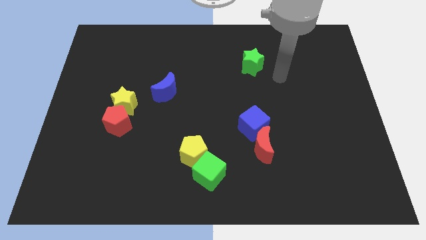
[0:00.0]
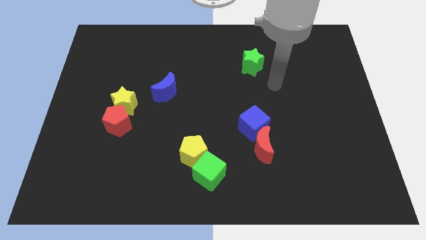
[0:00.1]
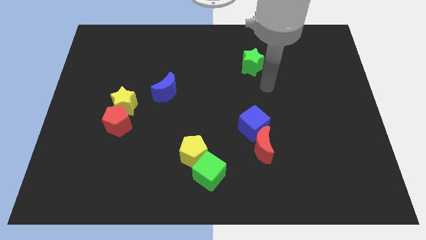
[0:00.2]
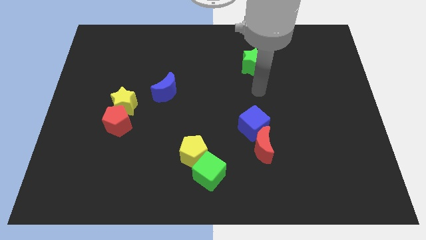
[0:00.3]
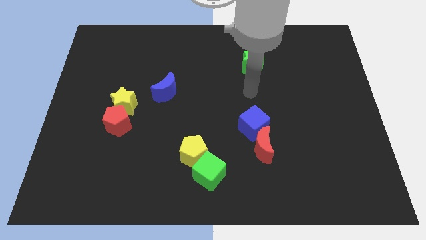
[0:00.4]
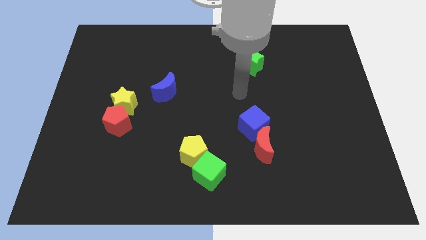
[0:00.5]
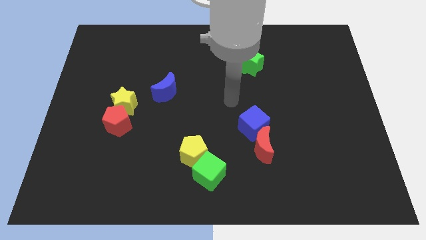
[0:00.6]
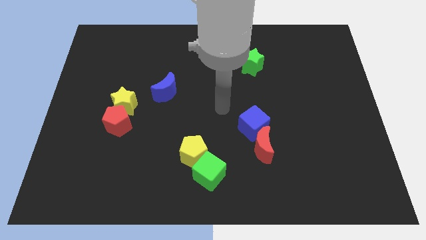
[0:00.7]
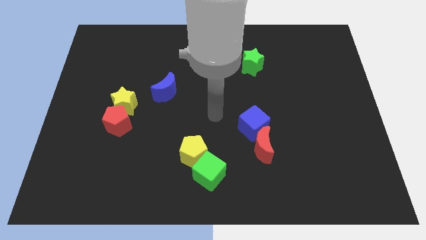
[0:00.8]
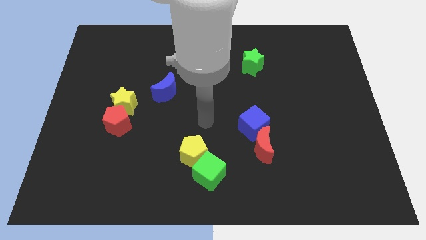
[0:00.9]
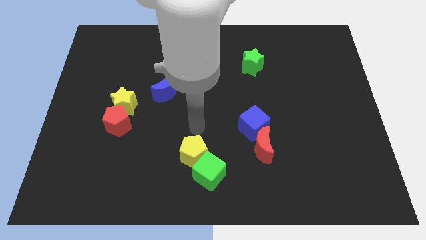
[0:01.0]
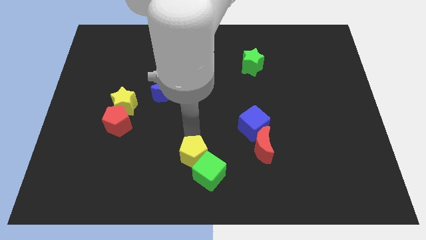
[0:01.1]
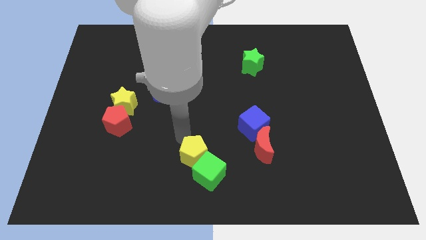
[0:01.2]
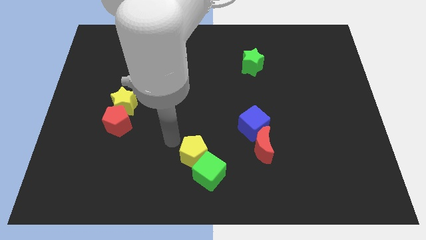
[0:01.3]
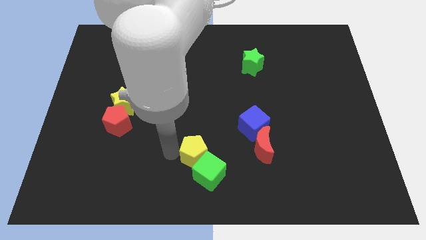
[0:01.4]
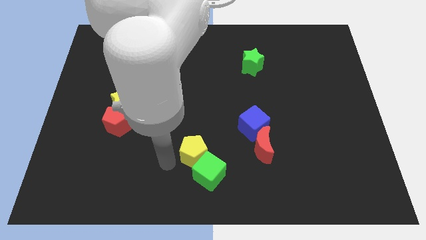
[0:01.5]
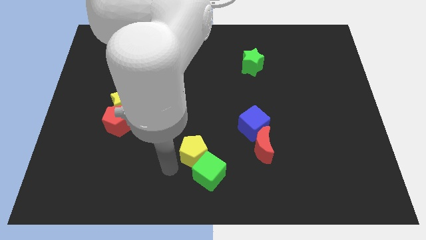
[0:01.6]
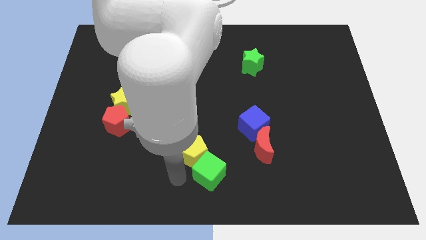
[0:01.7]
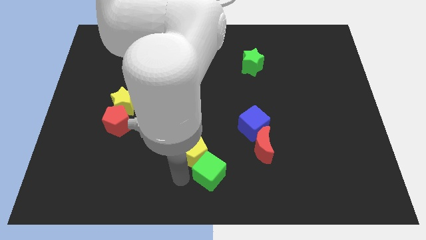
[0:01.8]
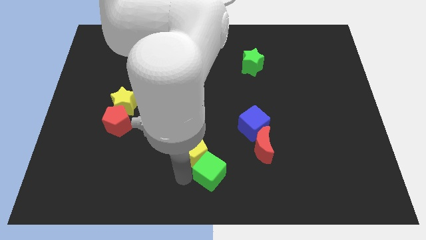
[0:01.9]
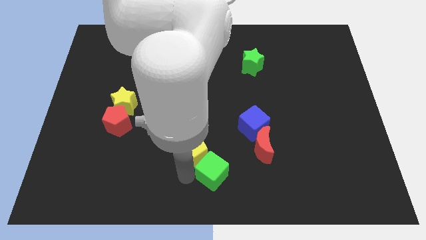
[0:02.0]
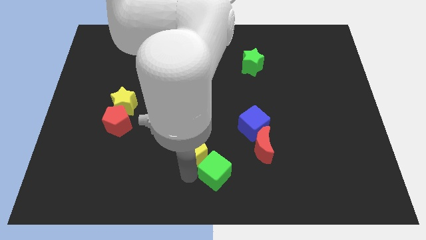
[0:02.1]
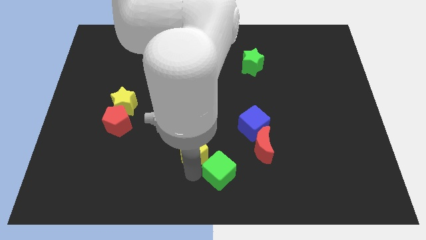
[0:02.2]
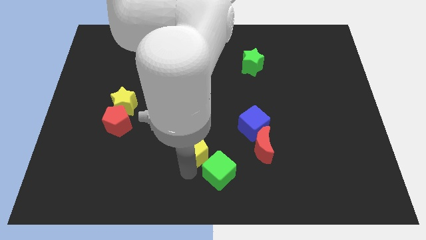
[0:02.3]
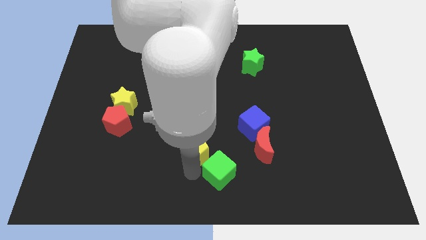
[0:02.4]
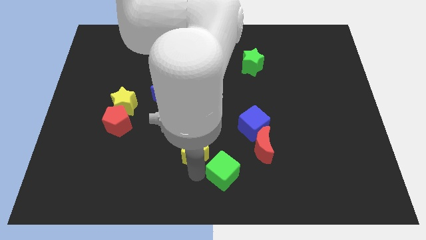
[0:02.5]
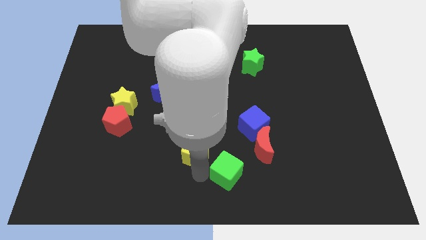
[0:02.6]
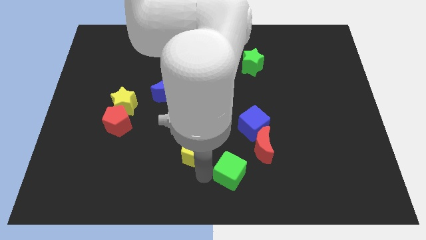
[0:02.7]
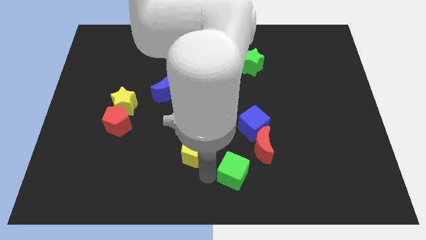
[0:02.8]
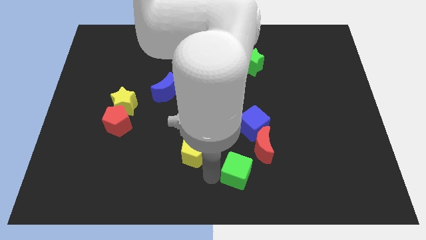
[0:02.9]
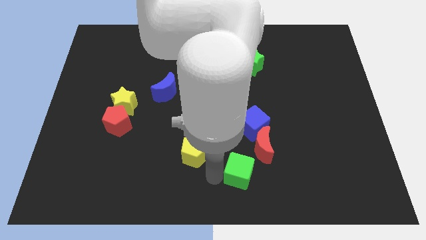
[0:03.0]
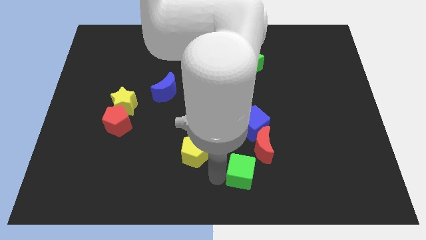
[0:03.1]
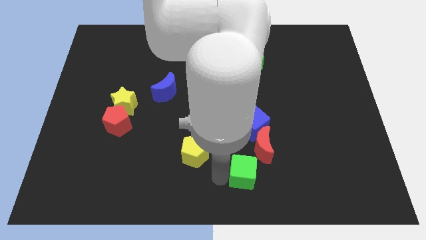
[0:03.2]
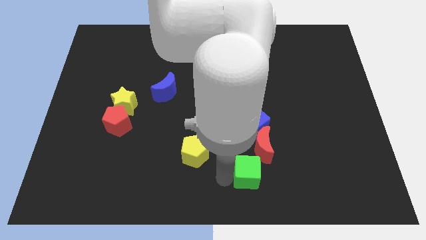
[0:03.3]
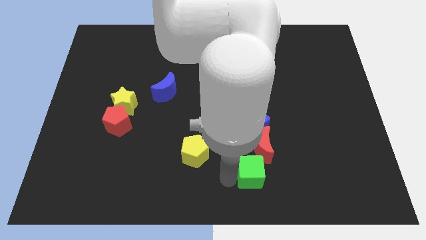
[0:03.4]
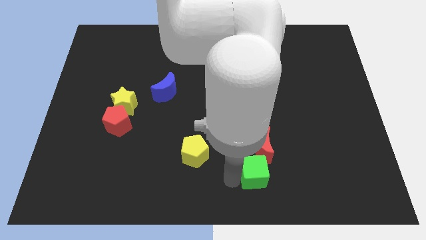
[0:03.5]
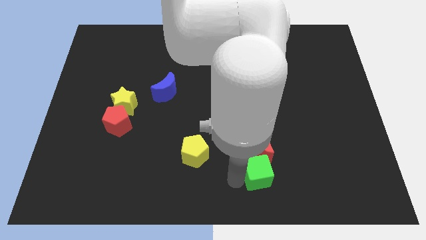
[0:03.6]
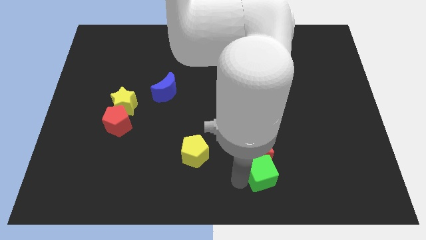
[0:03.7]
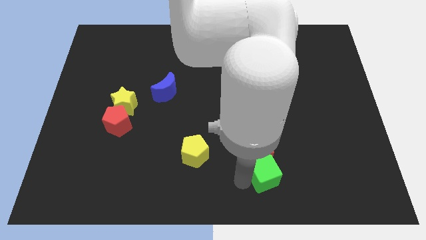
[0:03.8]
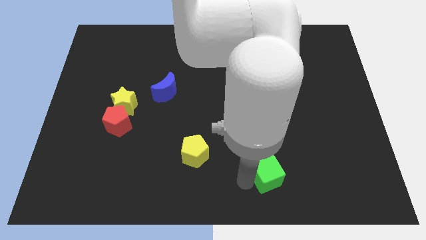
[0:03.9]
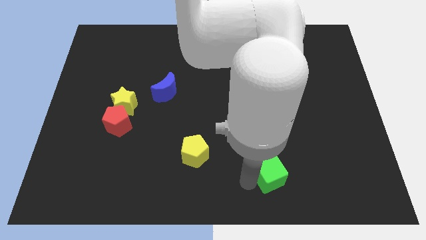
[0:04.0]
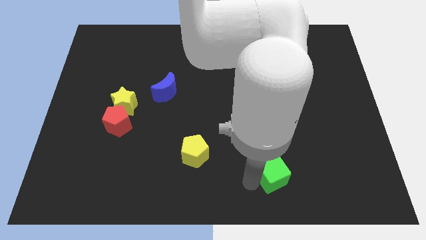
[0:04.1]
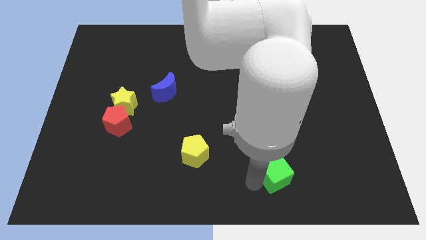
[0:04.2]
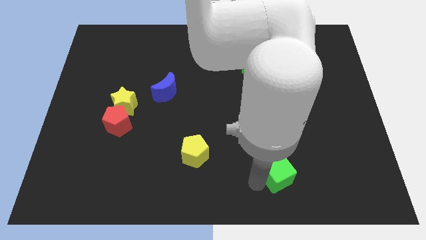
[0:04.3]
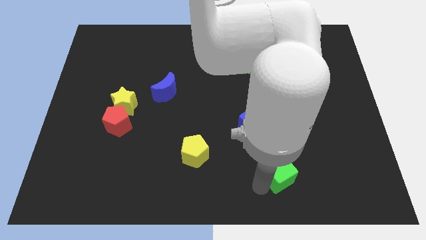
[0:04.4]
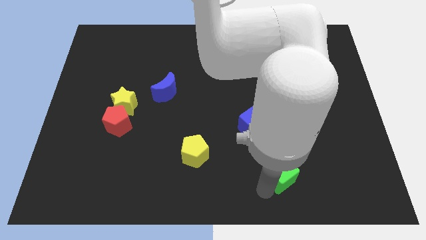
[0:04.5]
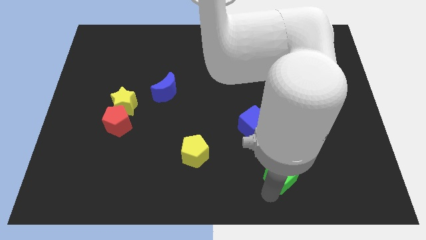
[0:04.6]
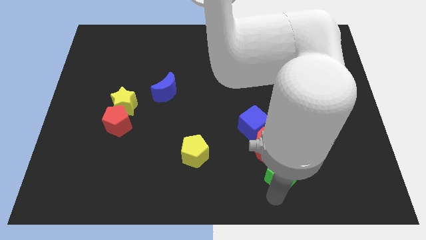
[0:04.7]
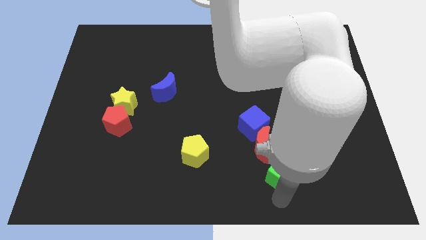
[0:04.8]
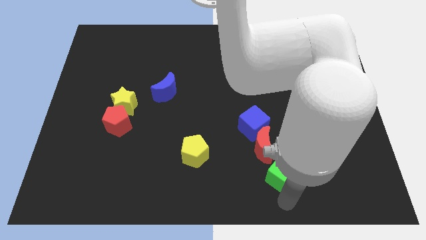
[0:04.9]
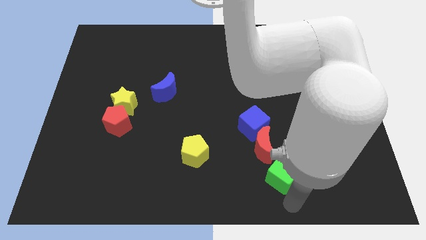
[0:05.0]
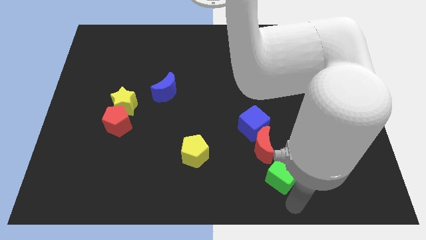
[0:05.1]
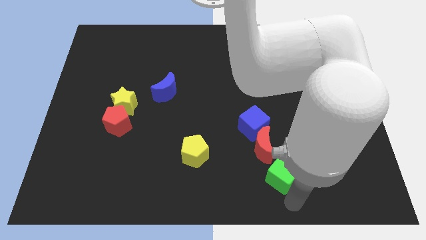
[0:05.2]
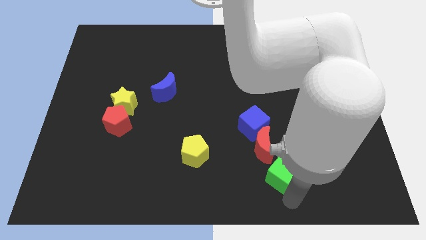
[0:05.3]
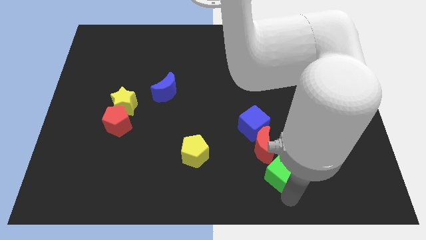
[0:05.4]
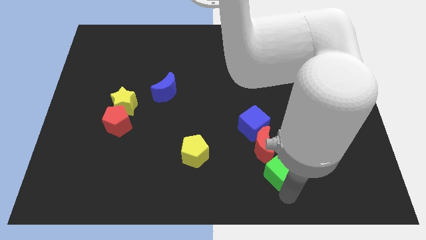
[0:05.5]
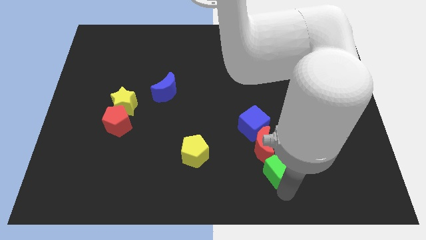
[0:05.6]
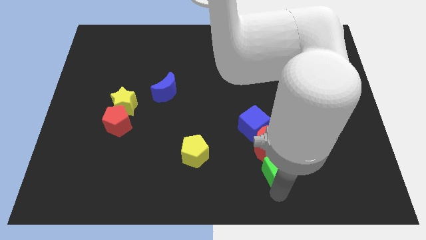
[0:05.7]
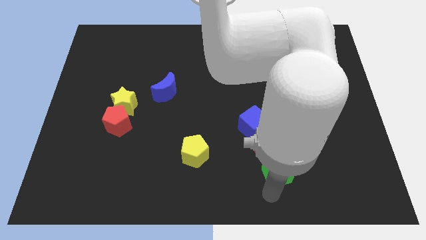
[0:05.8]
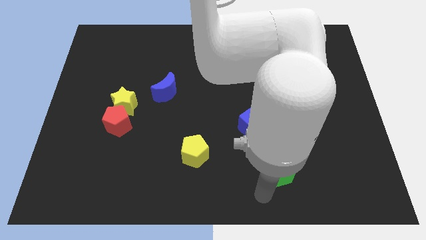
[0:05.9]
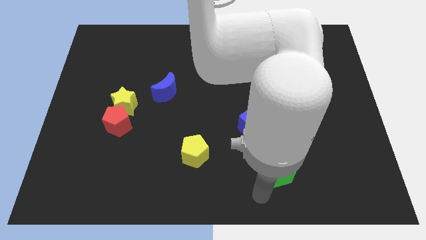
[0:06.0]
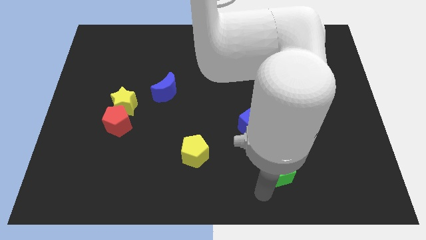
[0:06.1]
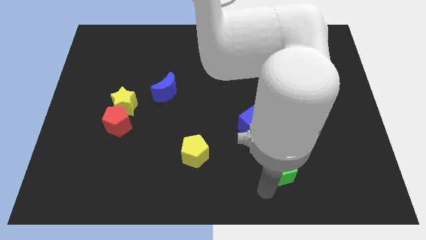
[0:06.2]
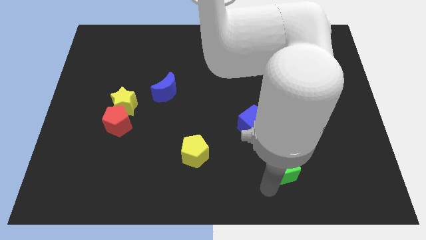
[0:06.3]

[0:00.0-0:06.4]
slightly move the green cube upwards and to the right diagonally

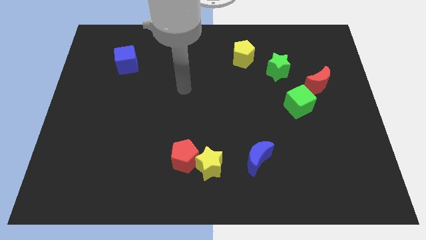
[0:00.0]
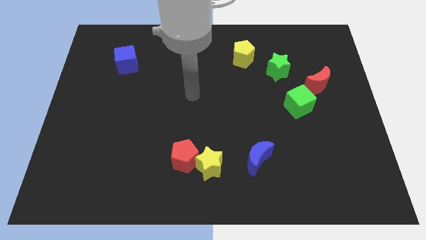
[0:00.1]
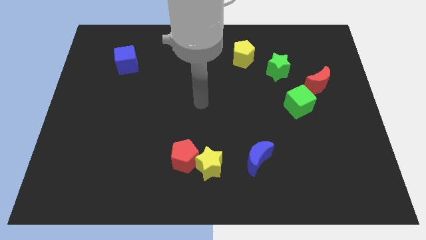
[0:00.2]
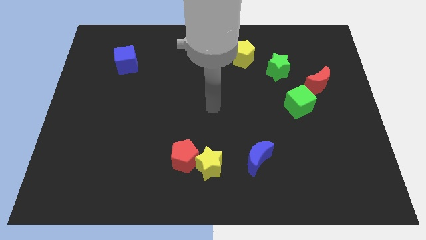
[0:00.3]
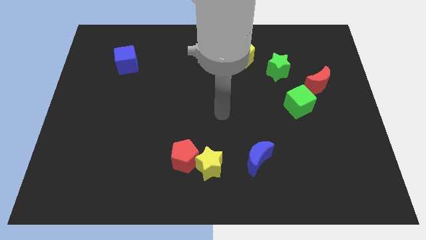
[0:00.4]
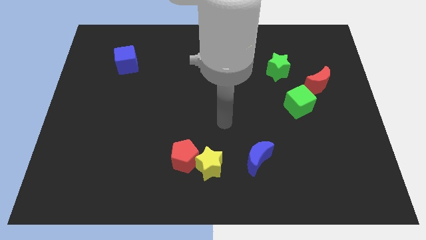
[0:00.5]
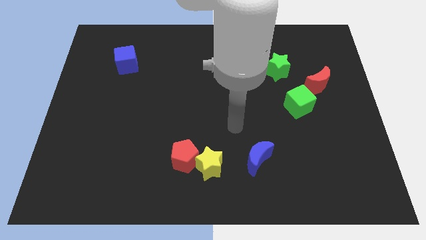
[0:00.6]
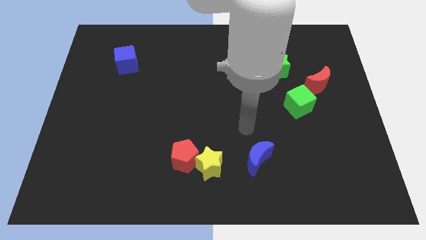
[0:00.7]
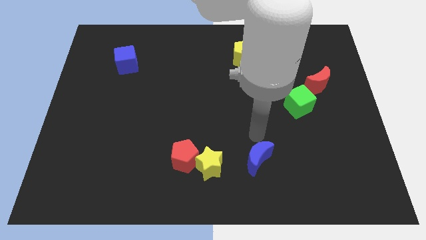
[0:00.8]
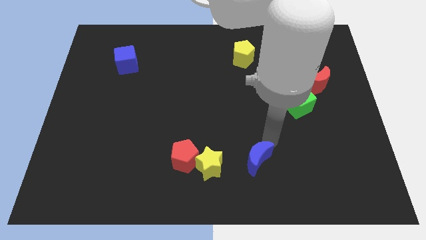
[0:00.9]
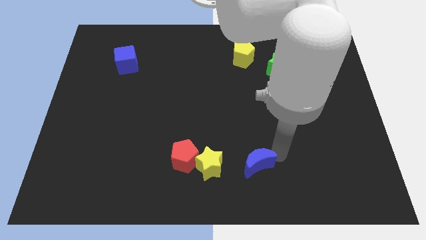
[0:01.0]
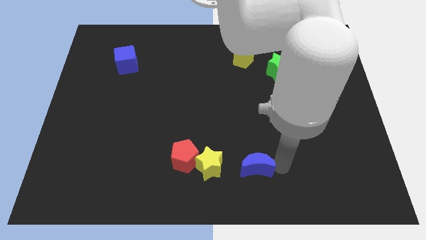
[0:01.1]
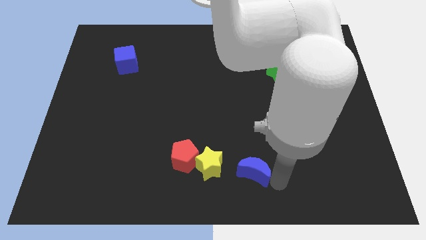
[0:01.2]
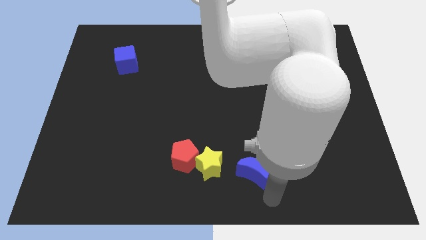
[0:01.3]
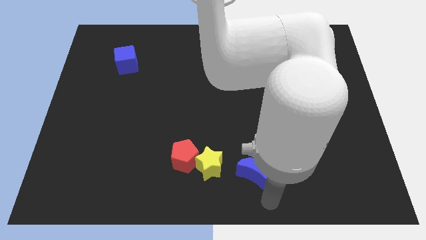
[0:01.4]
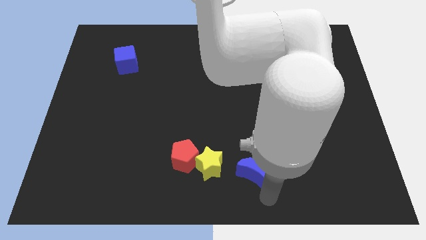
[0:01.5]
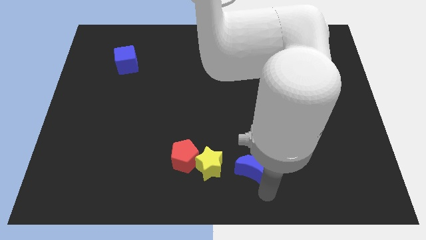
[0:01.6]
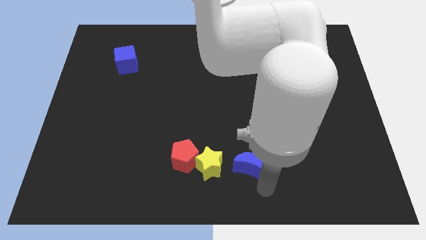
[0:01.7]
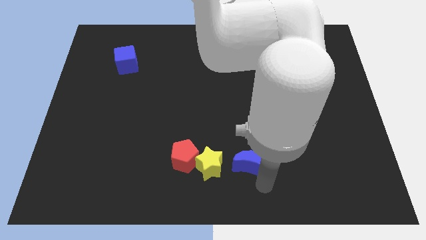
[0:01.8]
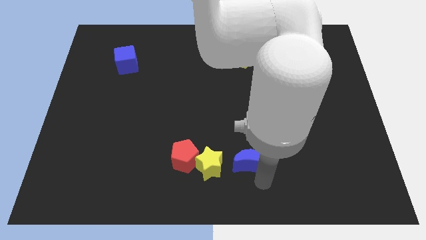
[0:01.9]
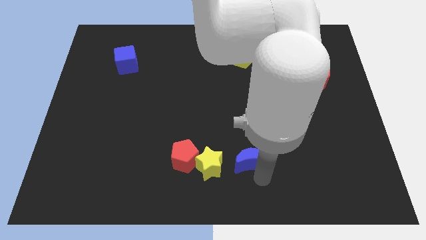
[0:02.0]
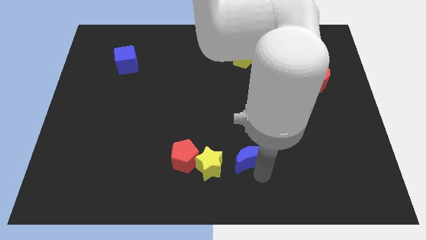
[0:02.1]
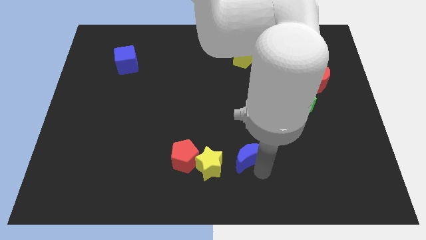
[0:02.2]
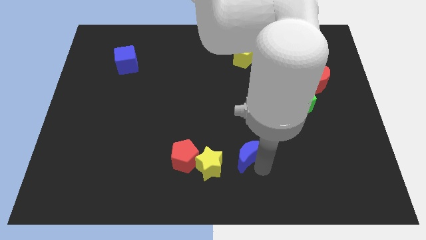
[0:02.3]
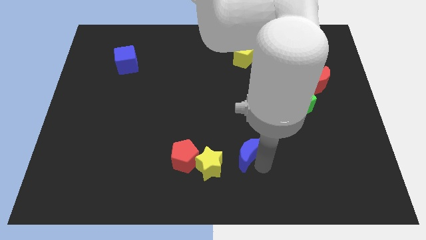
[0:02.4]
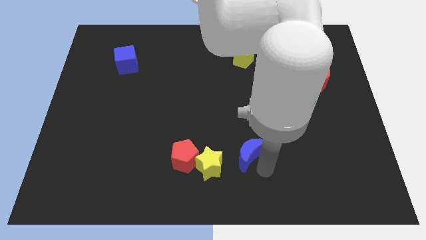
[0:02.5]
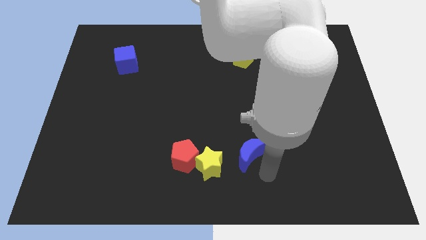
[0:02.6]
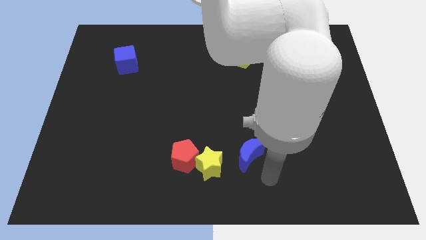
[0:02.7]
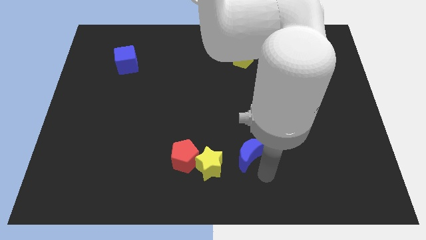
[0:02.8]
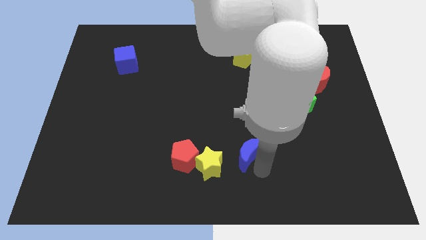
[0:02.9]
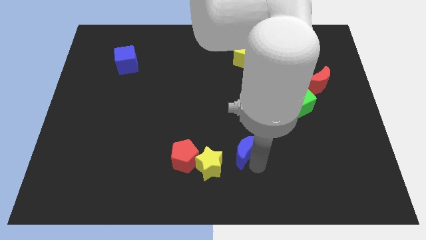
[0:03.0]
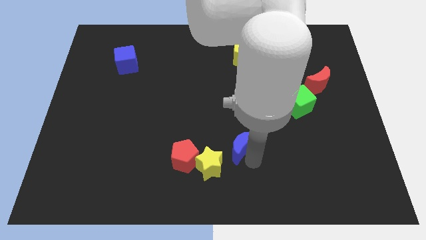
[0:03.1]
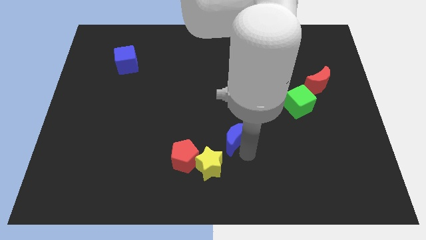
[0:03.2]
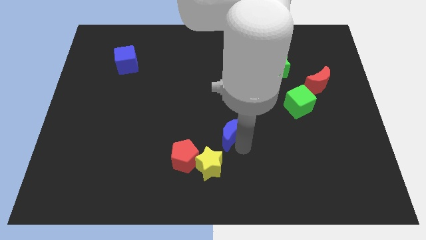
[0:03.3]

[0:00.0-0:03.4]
slide the blue moon a little bit upwards and then to the left
